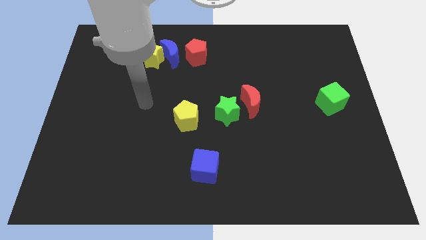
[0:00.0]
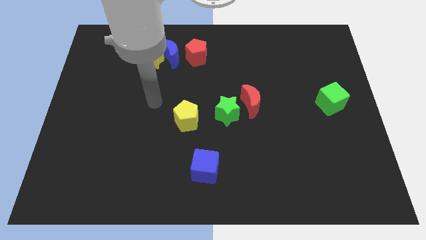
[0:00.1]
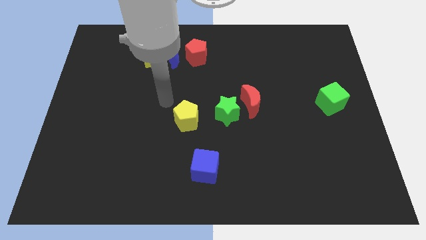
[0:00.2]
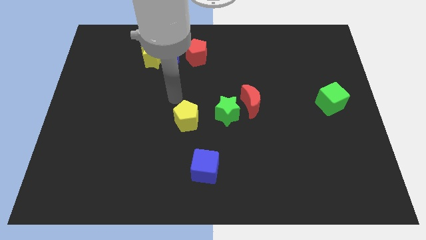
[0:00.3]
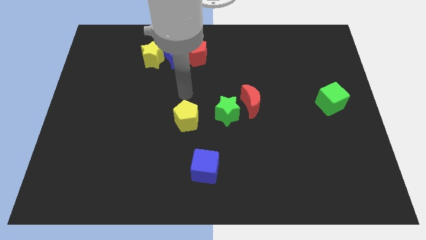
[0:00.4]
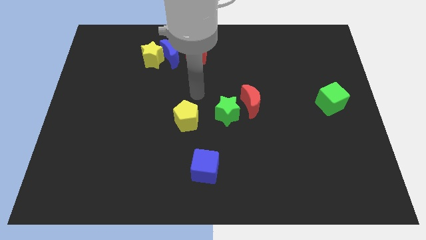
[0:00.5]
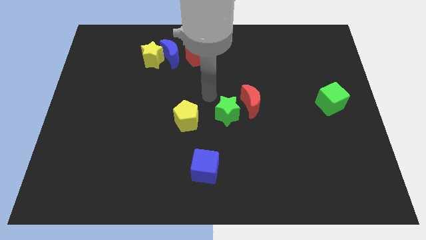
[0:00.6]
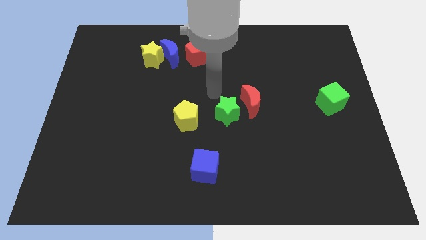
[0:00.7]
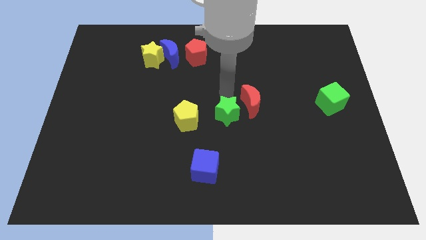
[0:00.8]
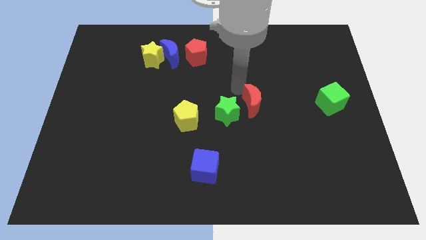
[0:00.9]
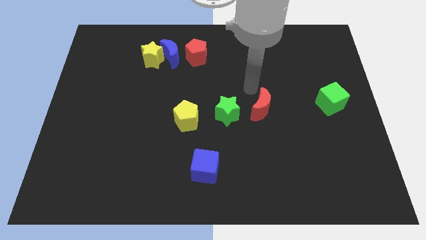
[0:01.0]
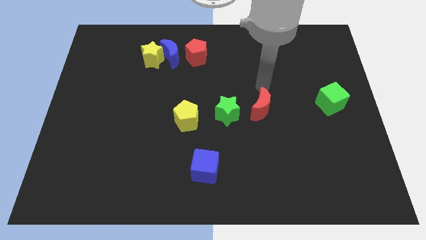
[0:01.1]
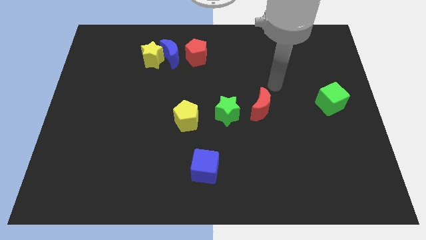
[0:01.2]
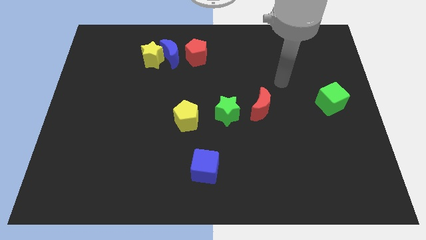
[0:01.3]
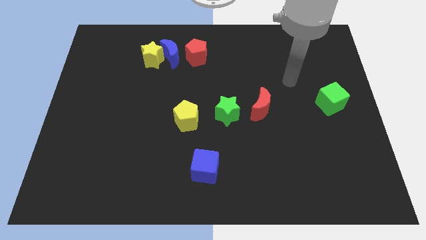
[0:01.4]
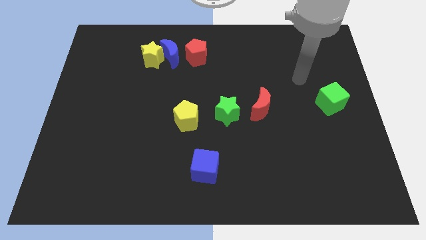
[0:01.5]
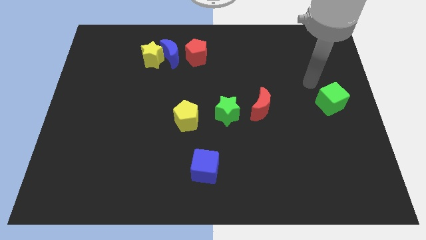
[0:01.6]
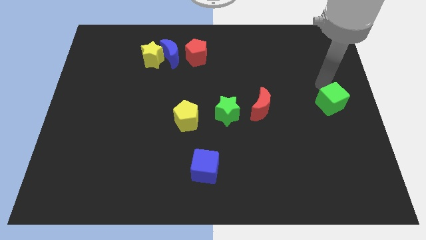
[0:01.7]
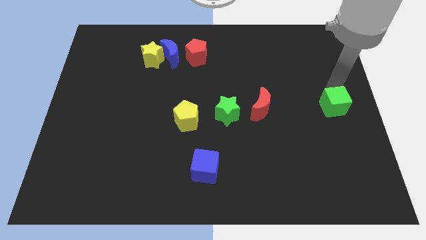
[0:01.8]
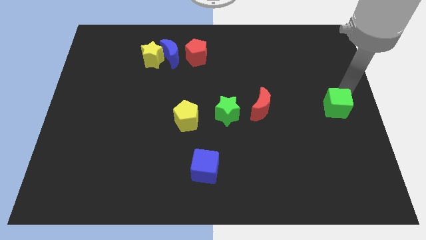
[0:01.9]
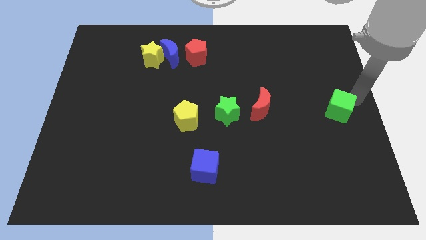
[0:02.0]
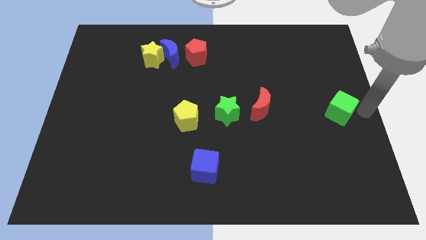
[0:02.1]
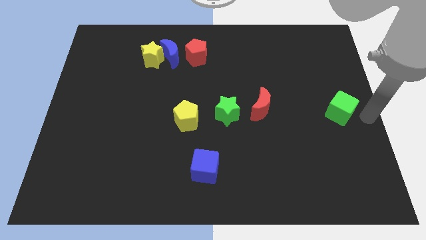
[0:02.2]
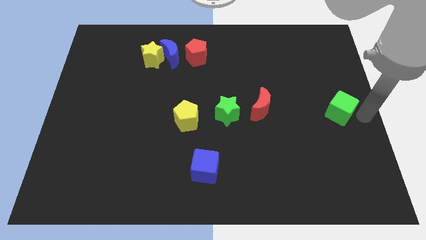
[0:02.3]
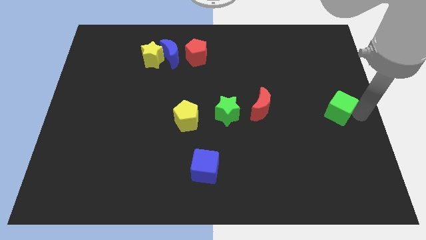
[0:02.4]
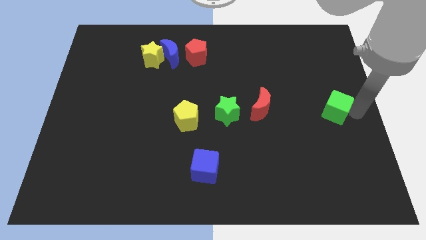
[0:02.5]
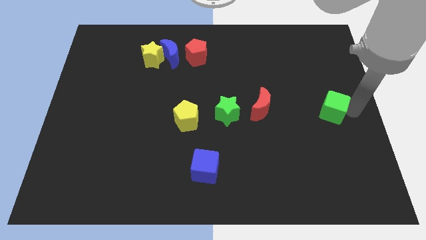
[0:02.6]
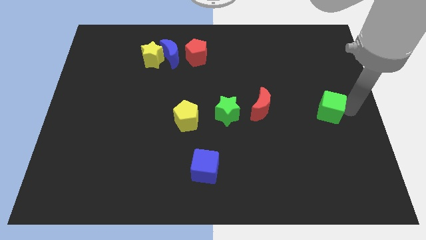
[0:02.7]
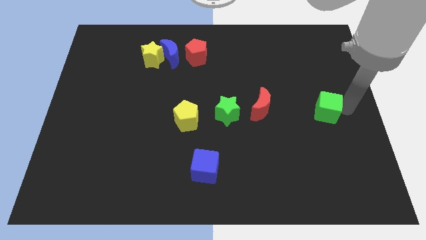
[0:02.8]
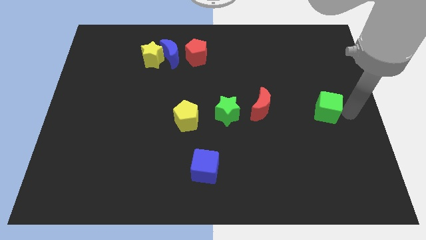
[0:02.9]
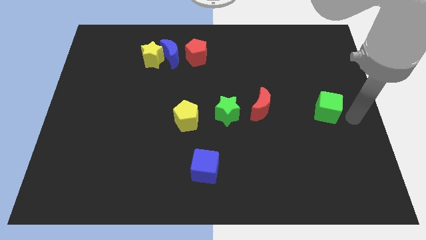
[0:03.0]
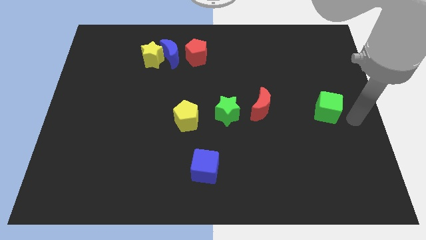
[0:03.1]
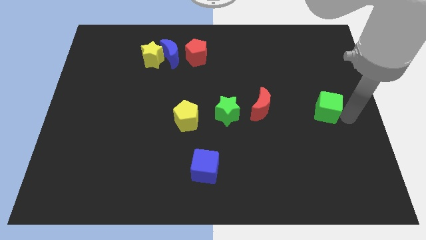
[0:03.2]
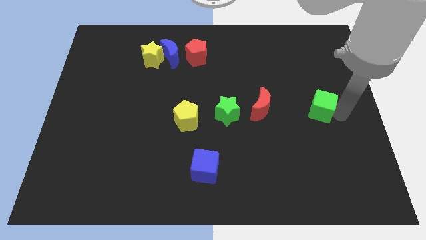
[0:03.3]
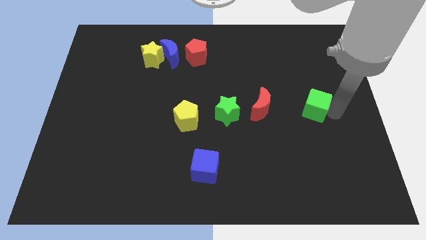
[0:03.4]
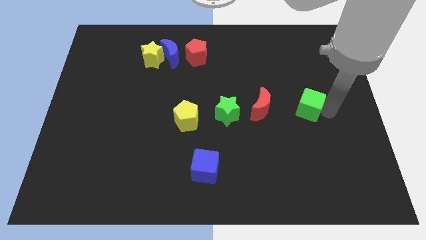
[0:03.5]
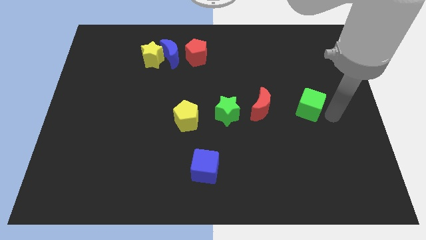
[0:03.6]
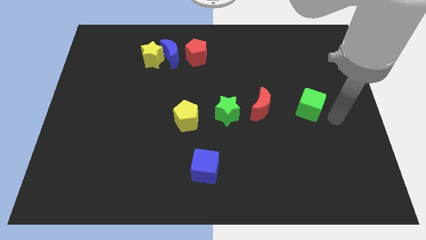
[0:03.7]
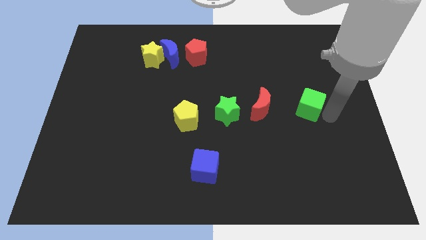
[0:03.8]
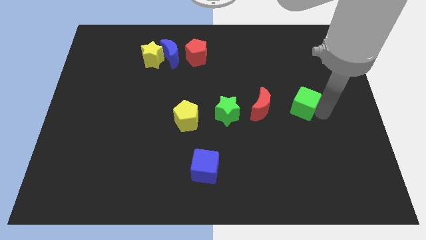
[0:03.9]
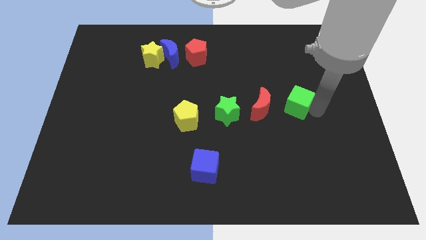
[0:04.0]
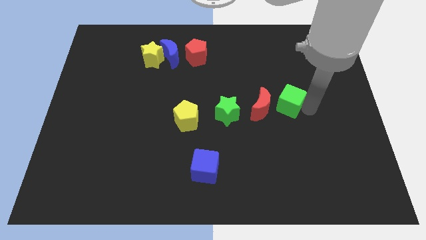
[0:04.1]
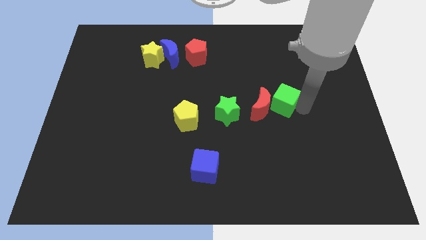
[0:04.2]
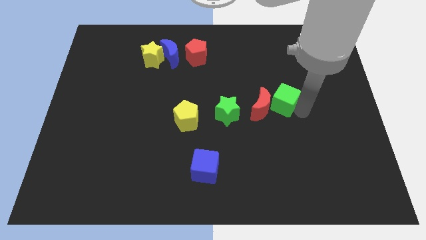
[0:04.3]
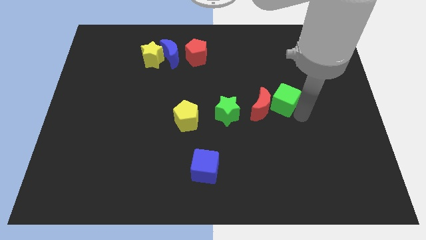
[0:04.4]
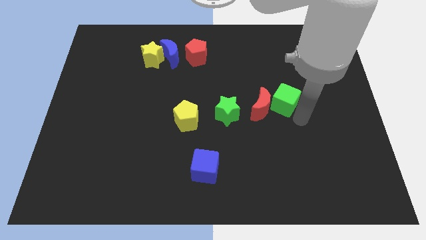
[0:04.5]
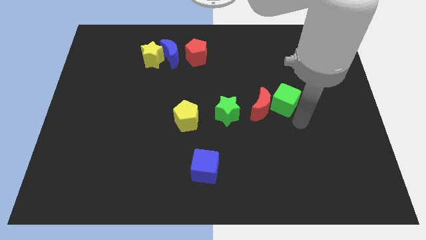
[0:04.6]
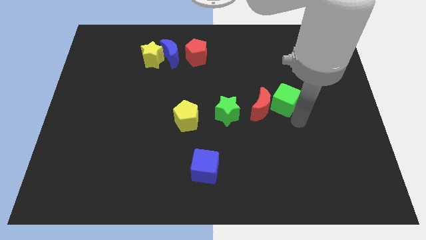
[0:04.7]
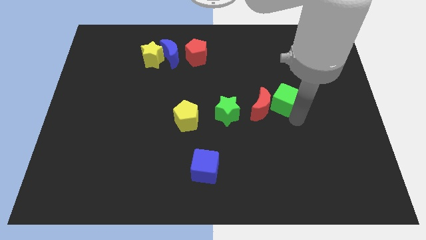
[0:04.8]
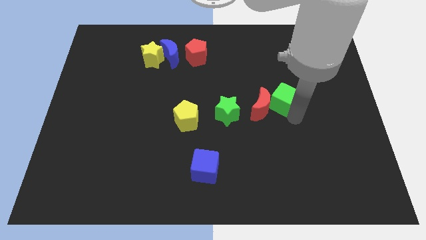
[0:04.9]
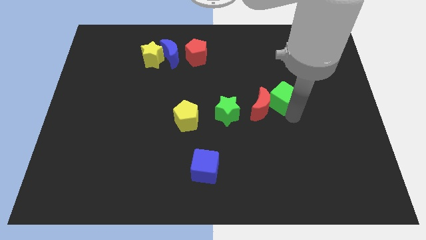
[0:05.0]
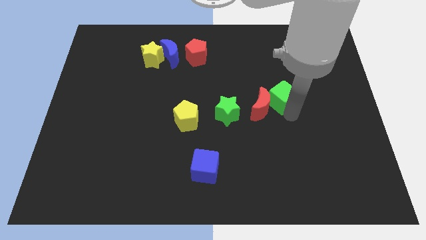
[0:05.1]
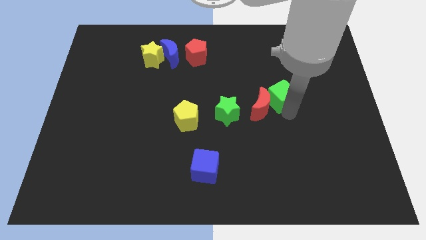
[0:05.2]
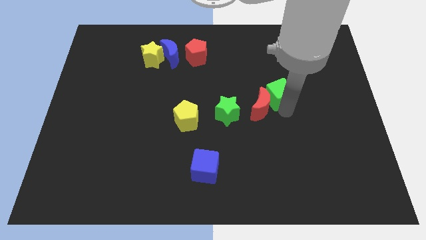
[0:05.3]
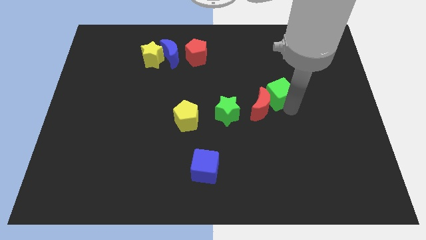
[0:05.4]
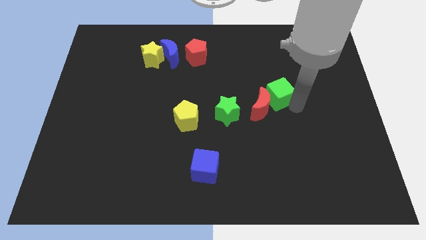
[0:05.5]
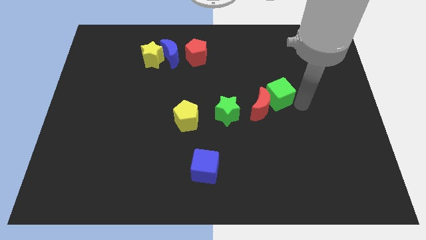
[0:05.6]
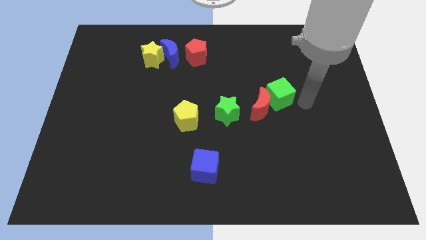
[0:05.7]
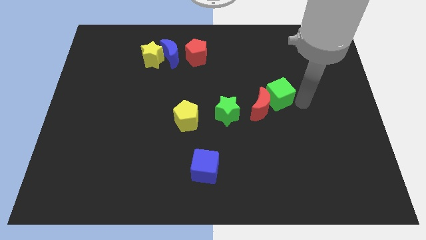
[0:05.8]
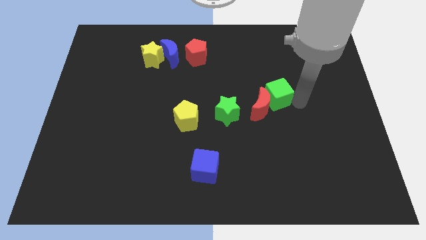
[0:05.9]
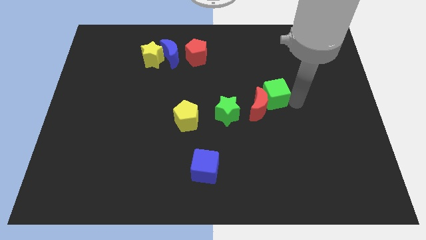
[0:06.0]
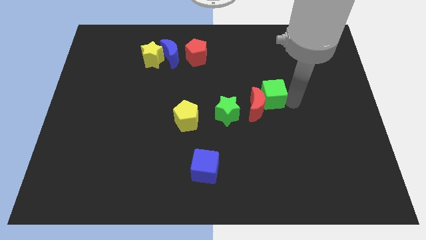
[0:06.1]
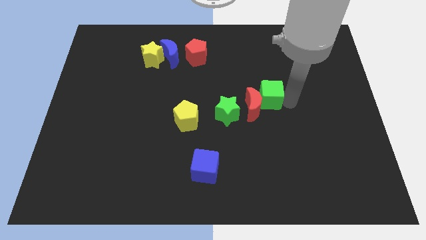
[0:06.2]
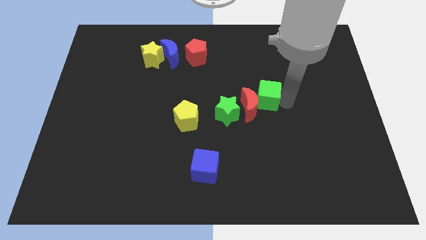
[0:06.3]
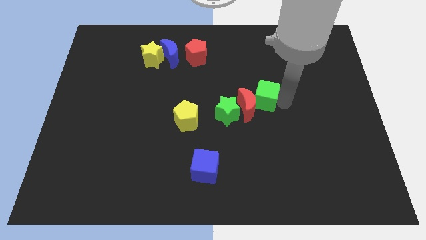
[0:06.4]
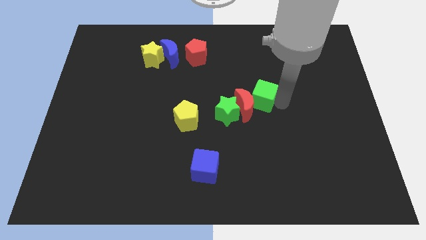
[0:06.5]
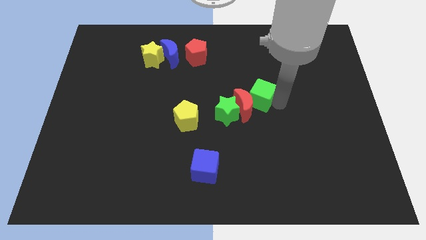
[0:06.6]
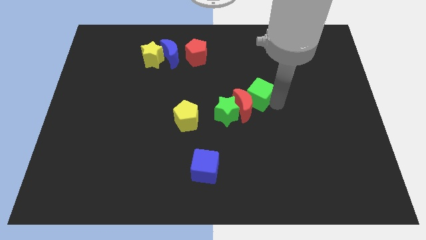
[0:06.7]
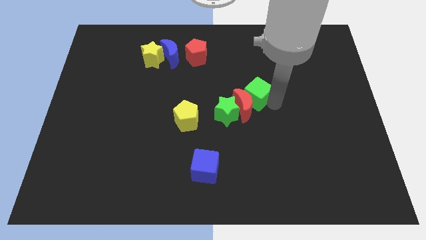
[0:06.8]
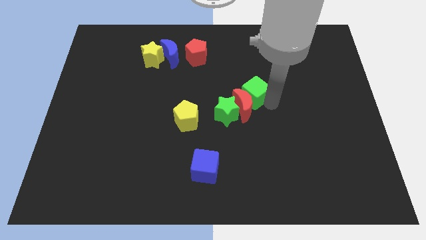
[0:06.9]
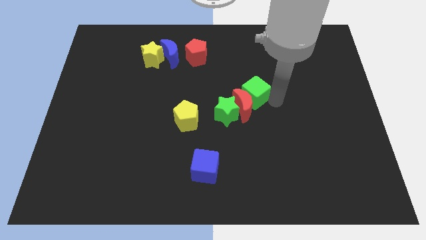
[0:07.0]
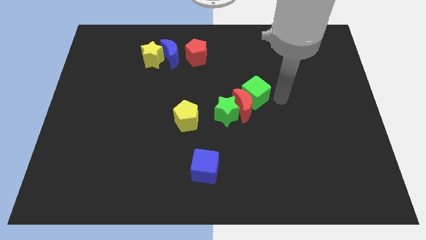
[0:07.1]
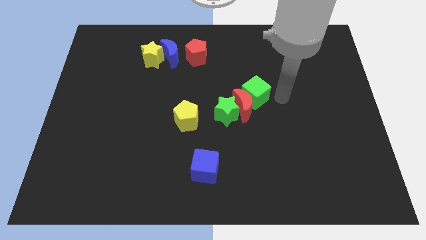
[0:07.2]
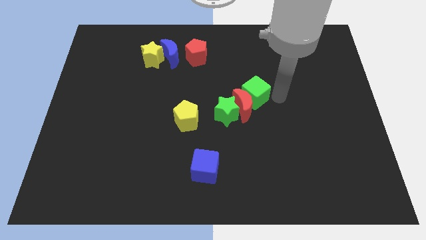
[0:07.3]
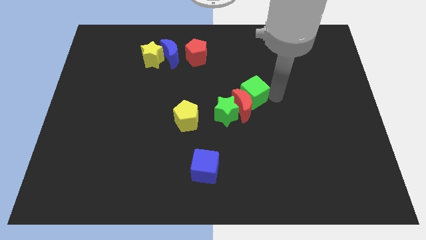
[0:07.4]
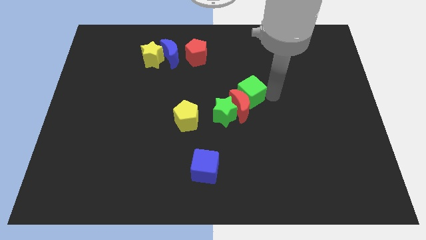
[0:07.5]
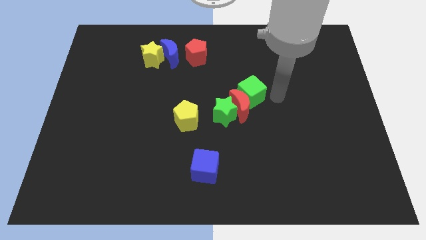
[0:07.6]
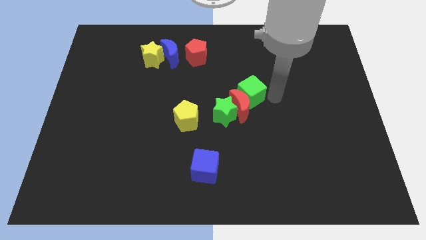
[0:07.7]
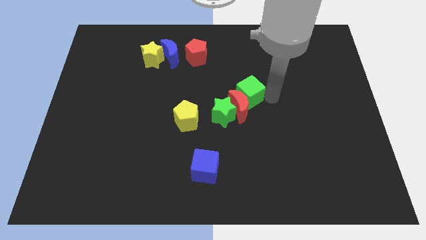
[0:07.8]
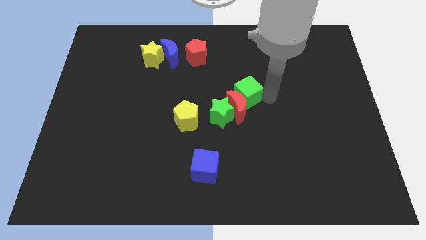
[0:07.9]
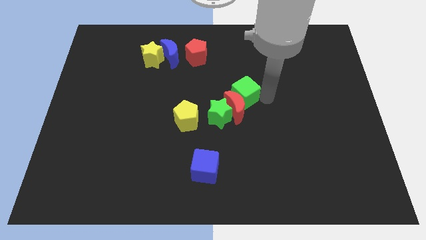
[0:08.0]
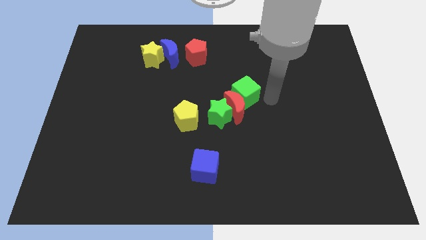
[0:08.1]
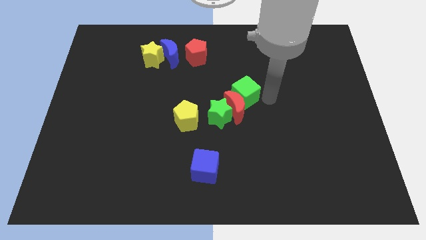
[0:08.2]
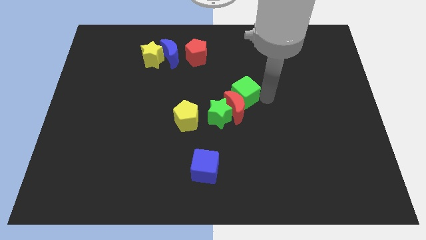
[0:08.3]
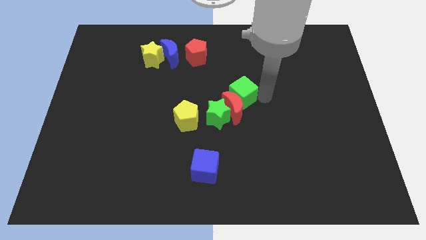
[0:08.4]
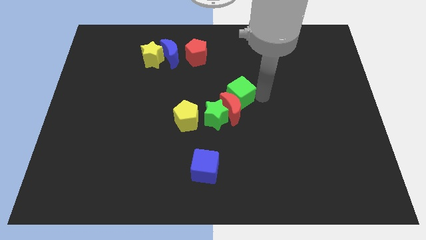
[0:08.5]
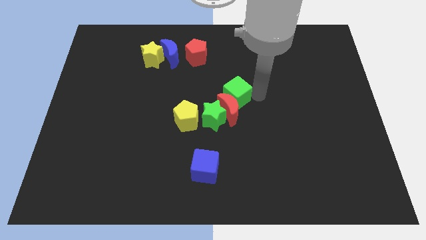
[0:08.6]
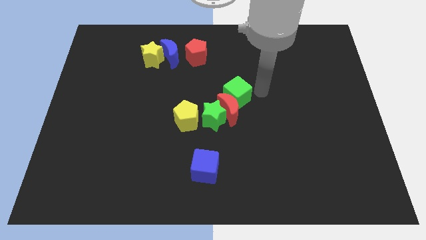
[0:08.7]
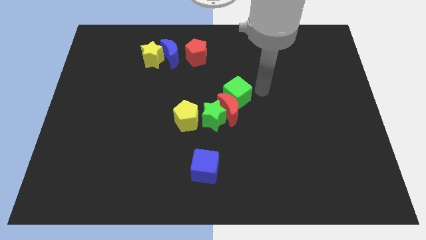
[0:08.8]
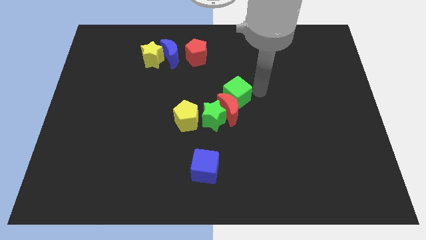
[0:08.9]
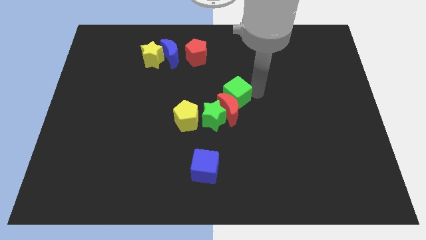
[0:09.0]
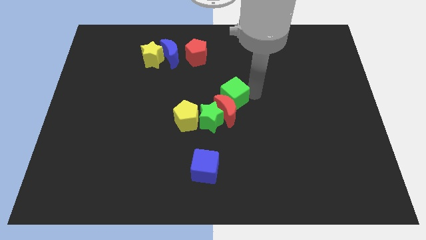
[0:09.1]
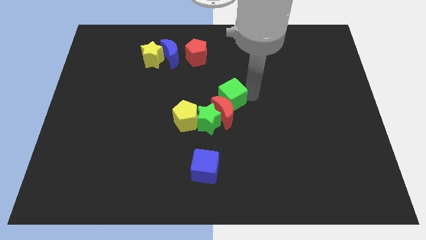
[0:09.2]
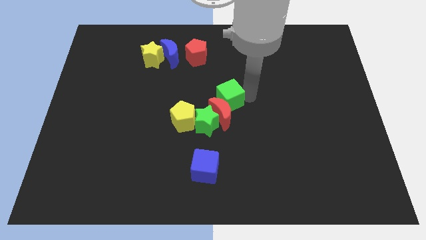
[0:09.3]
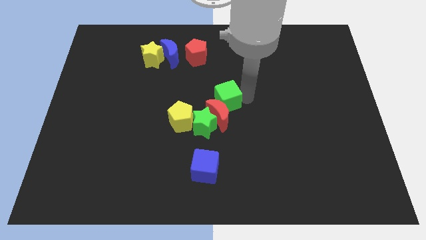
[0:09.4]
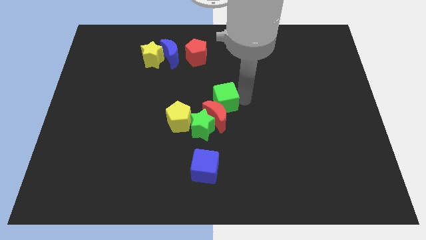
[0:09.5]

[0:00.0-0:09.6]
put the green cube diagonally up and to the right of the yellow pentagon
